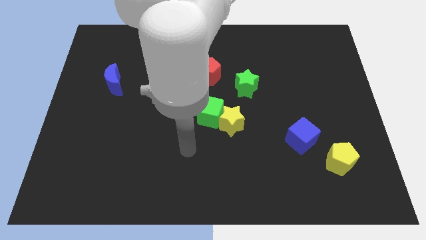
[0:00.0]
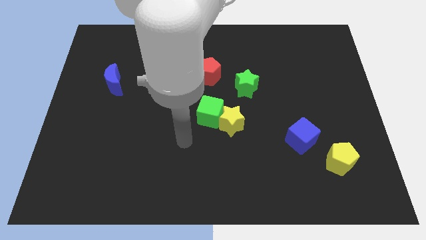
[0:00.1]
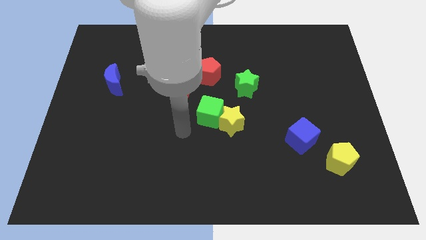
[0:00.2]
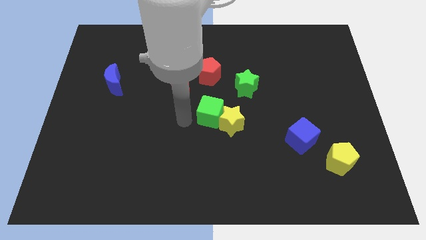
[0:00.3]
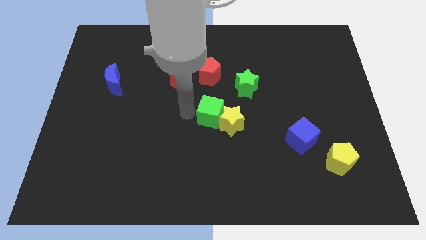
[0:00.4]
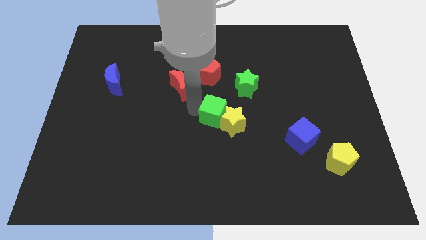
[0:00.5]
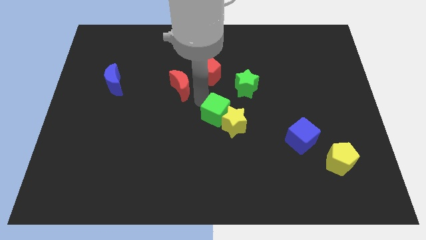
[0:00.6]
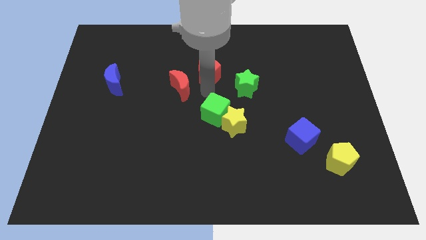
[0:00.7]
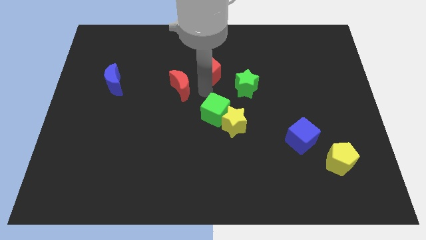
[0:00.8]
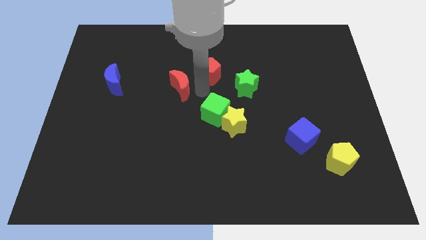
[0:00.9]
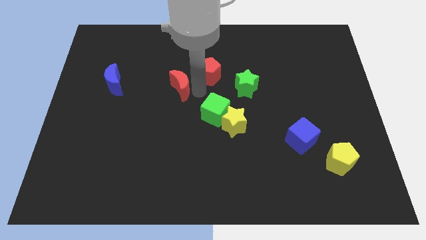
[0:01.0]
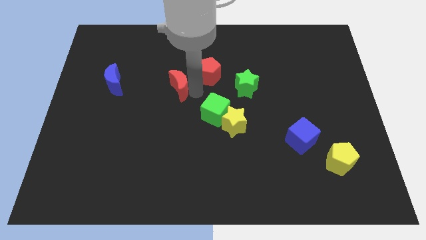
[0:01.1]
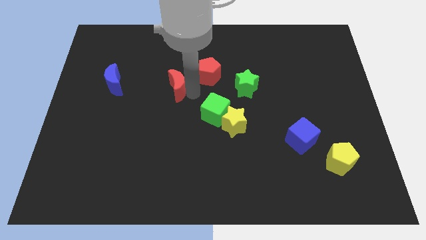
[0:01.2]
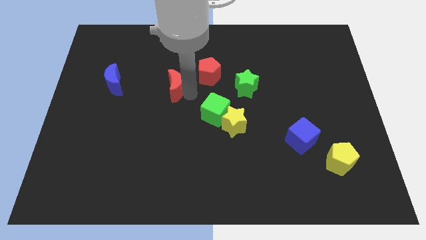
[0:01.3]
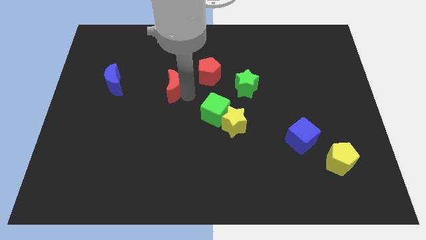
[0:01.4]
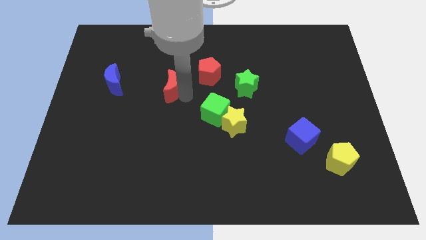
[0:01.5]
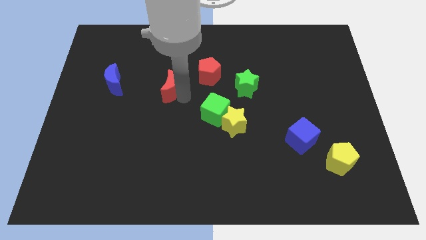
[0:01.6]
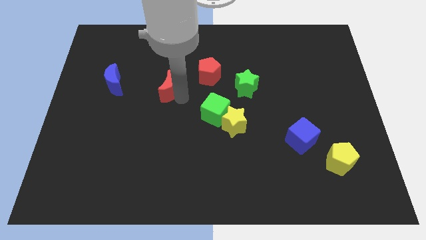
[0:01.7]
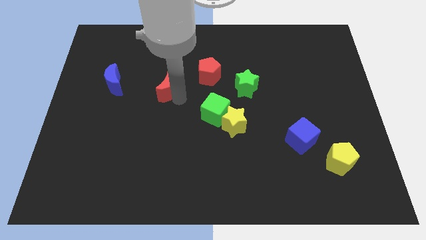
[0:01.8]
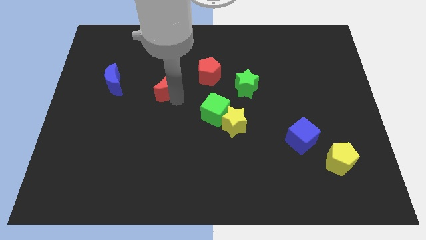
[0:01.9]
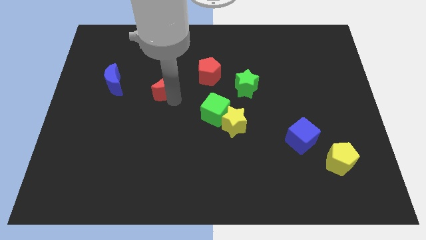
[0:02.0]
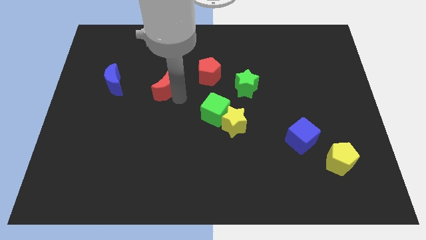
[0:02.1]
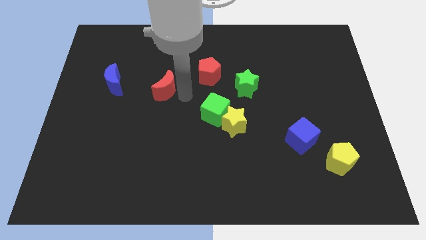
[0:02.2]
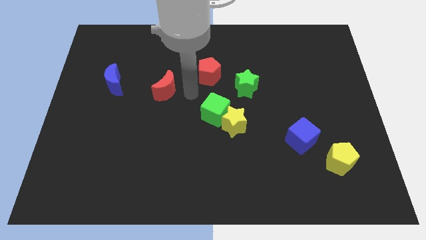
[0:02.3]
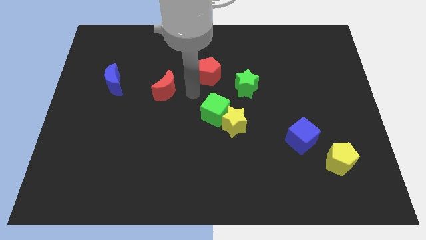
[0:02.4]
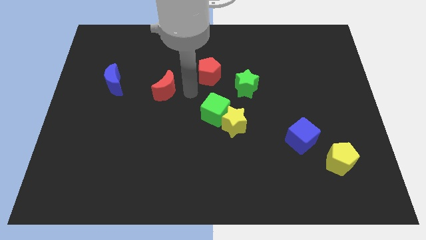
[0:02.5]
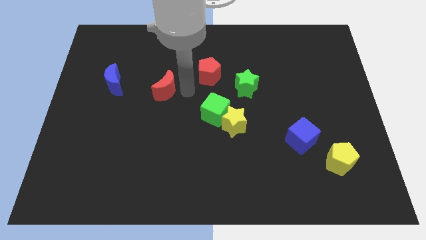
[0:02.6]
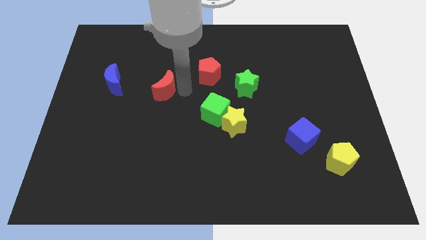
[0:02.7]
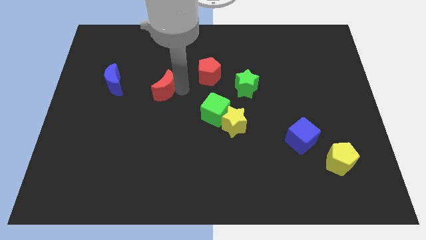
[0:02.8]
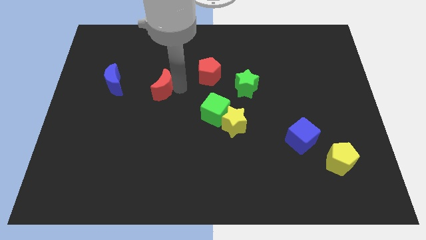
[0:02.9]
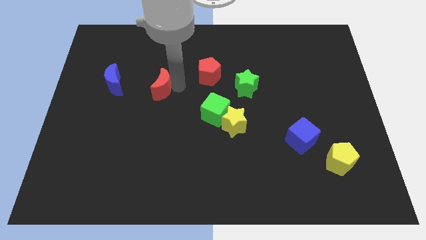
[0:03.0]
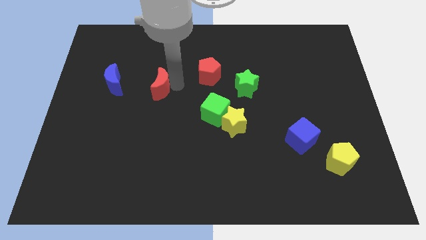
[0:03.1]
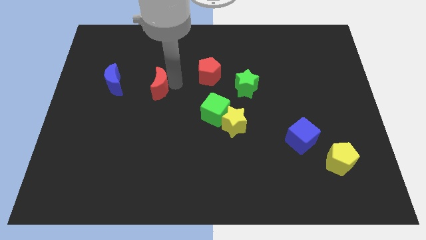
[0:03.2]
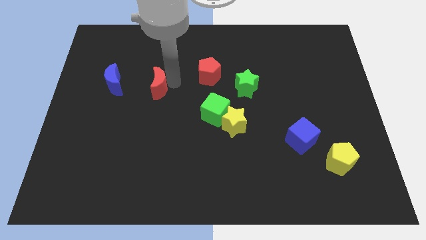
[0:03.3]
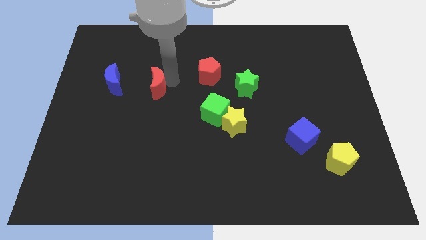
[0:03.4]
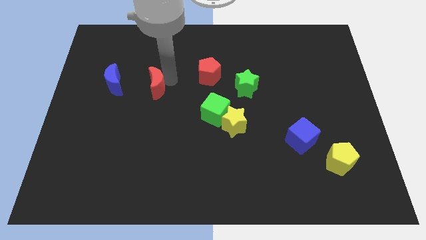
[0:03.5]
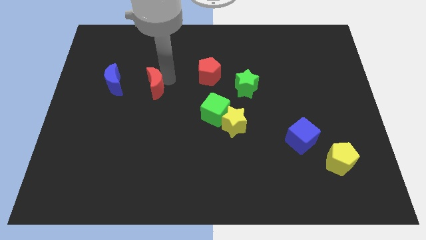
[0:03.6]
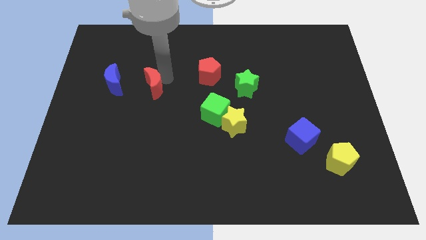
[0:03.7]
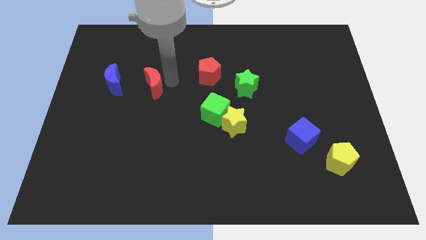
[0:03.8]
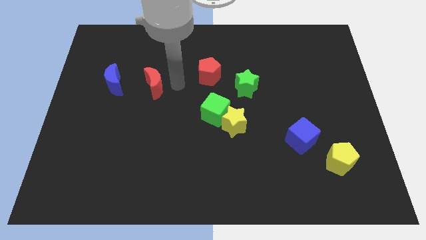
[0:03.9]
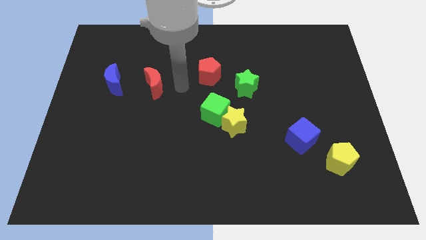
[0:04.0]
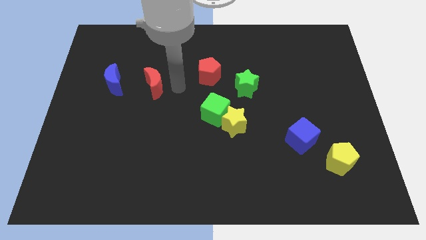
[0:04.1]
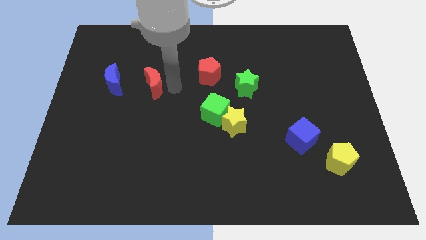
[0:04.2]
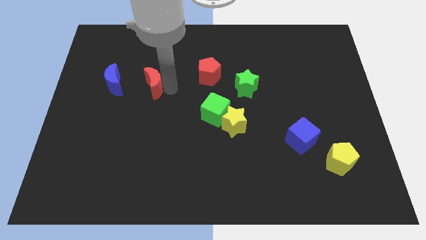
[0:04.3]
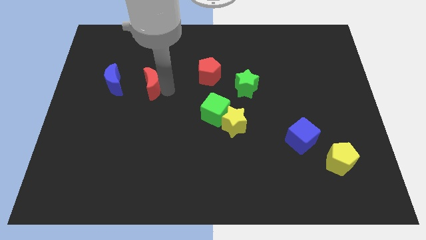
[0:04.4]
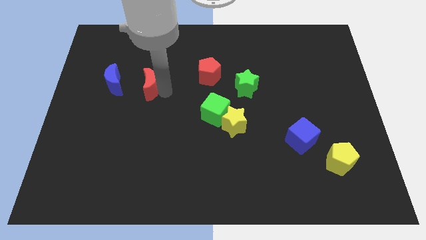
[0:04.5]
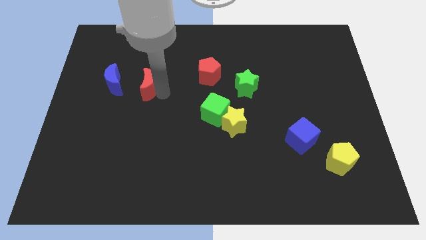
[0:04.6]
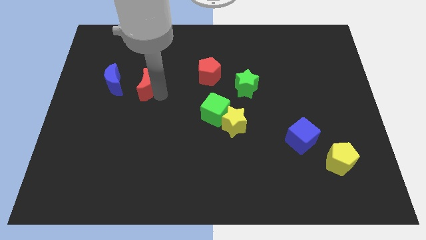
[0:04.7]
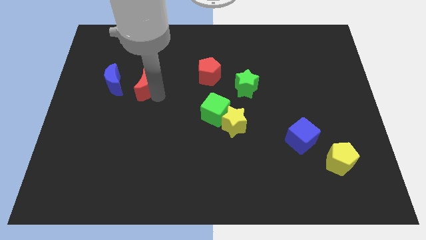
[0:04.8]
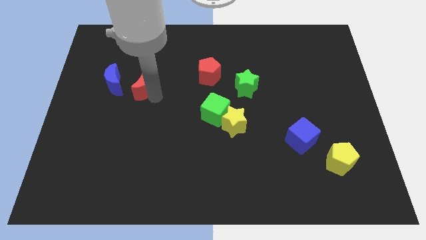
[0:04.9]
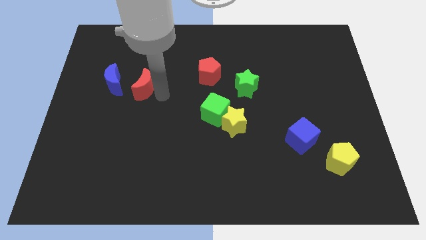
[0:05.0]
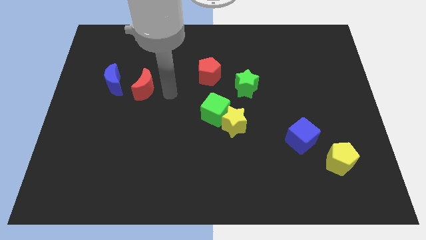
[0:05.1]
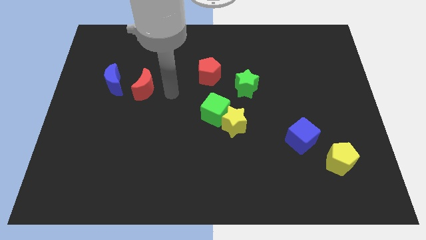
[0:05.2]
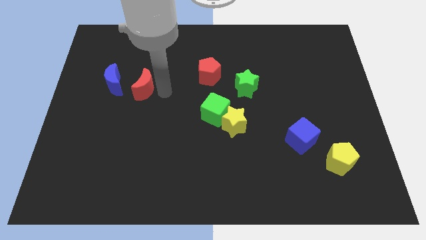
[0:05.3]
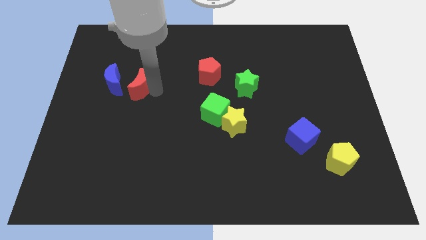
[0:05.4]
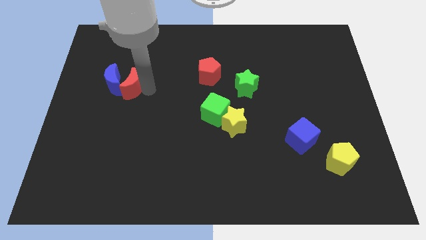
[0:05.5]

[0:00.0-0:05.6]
slide the red moon close to the blue moon
